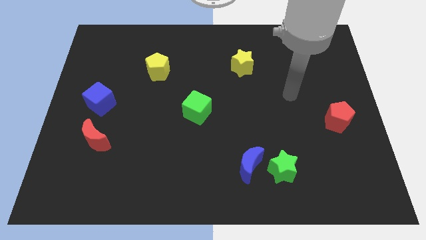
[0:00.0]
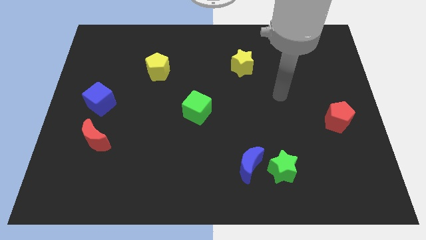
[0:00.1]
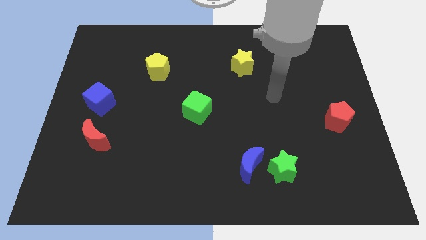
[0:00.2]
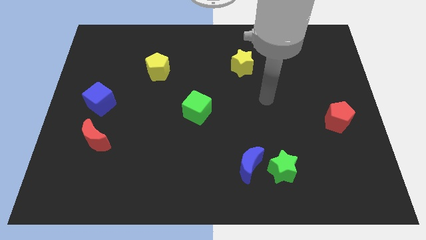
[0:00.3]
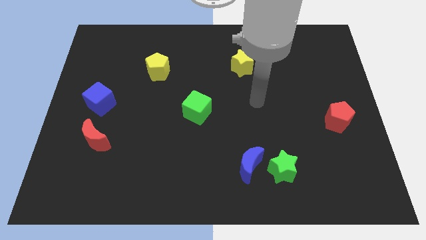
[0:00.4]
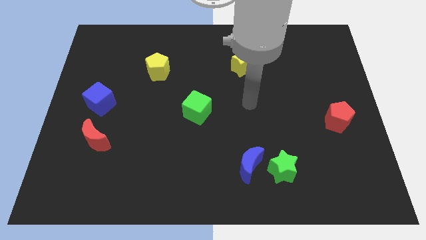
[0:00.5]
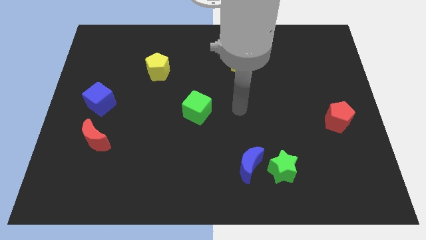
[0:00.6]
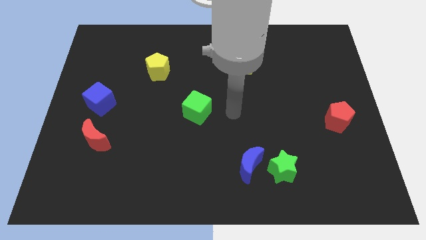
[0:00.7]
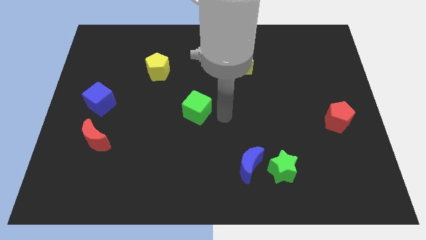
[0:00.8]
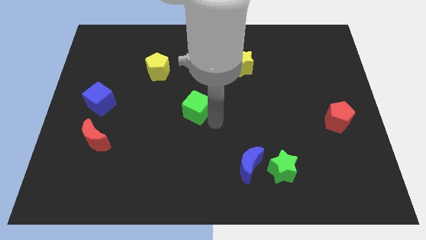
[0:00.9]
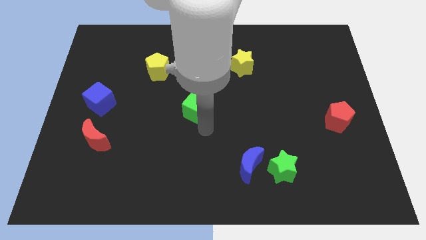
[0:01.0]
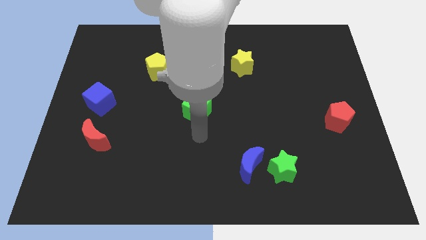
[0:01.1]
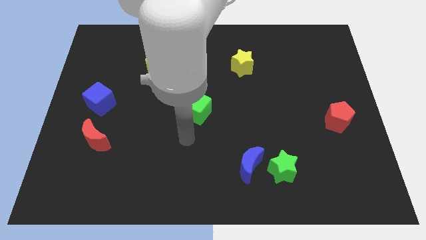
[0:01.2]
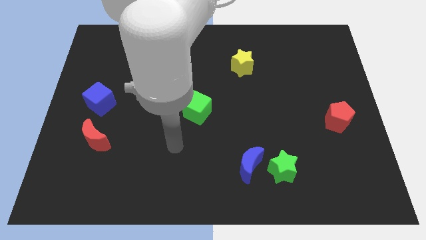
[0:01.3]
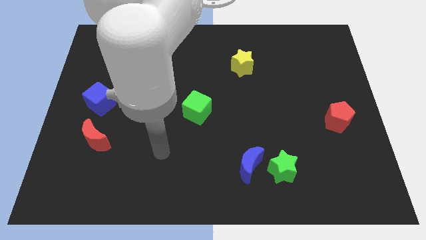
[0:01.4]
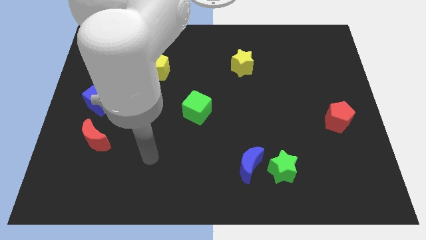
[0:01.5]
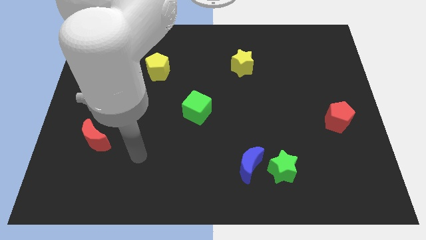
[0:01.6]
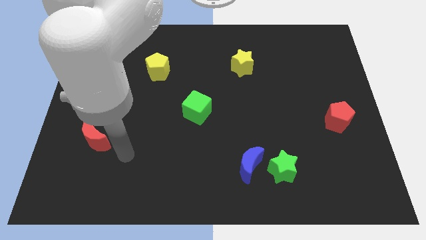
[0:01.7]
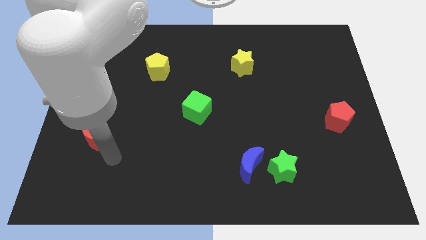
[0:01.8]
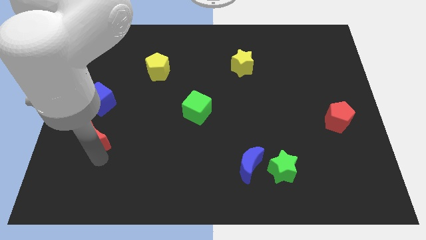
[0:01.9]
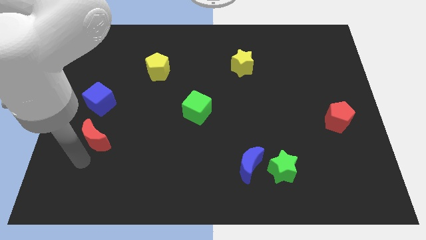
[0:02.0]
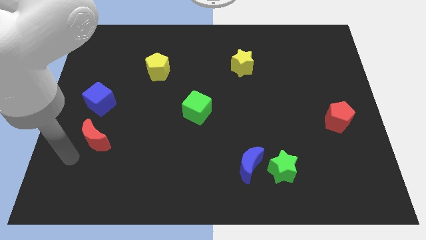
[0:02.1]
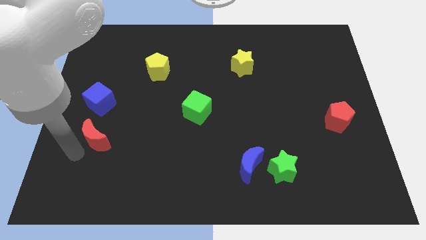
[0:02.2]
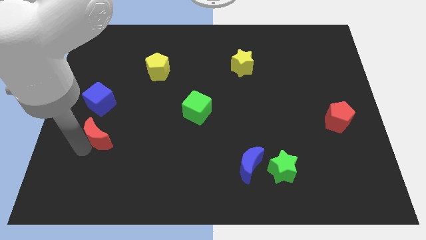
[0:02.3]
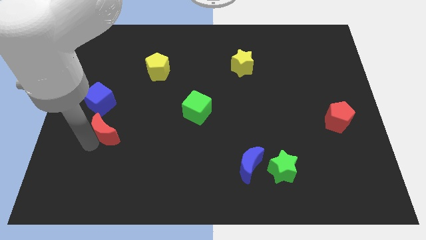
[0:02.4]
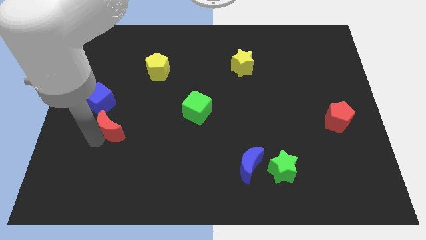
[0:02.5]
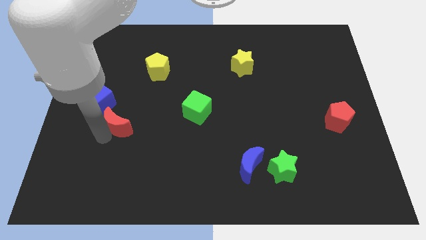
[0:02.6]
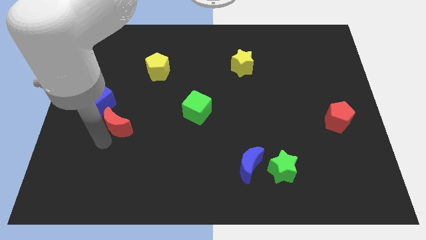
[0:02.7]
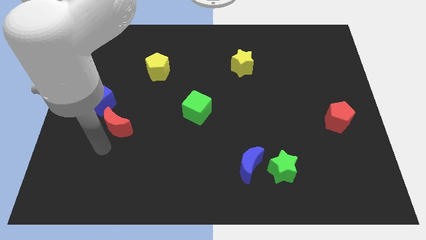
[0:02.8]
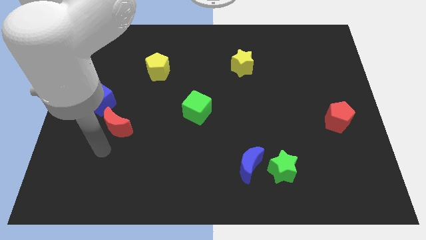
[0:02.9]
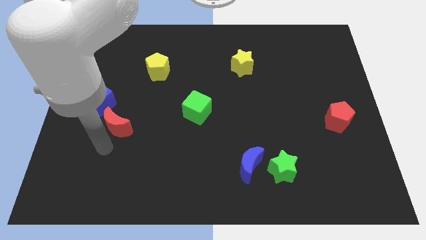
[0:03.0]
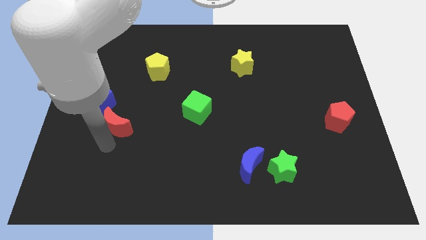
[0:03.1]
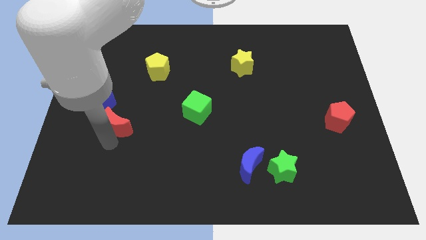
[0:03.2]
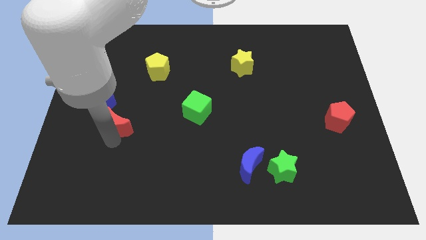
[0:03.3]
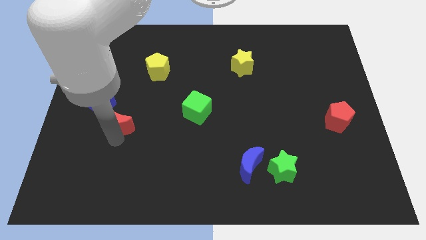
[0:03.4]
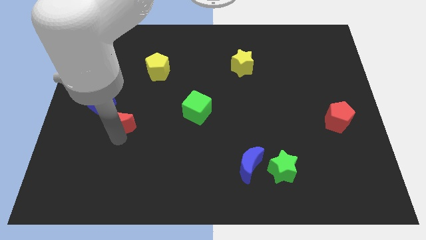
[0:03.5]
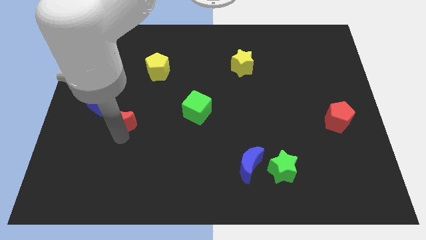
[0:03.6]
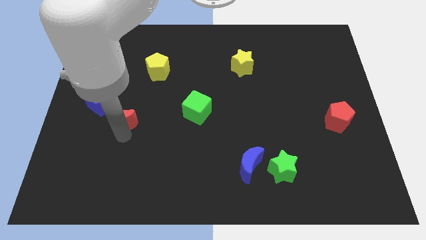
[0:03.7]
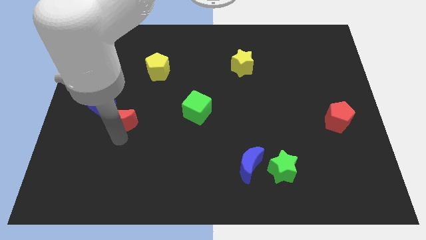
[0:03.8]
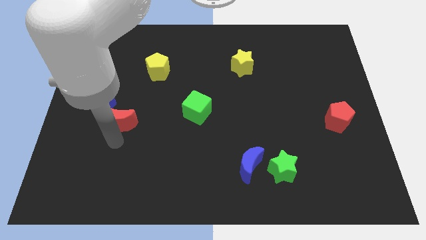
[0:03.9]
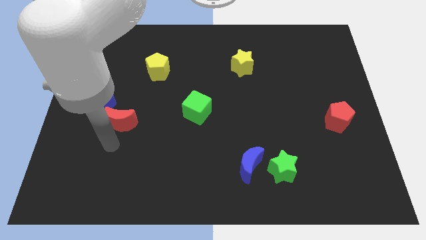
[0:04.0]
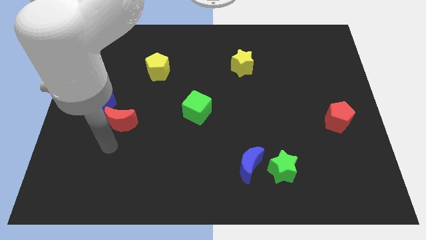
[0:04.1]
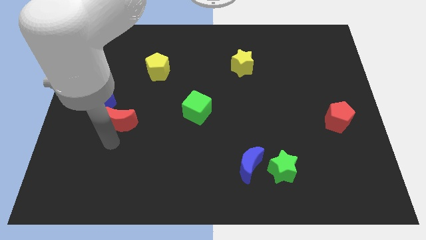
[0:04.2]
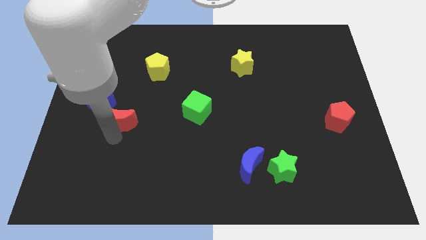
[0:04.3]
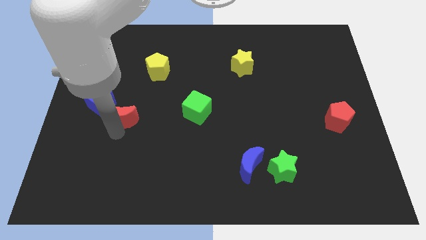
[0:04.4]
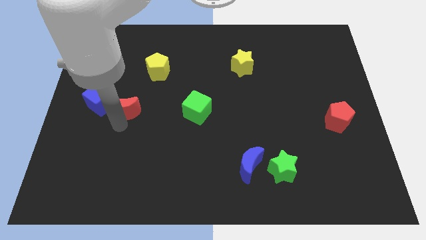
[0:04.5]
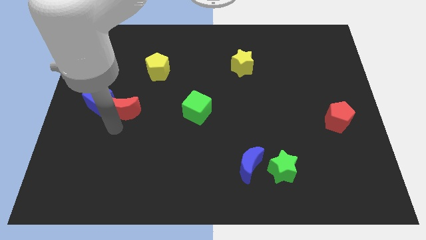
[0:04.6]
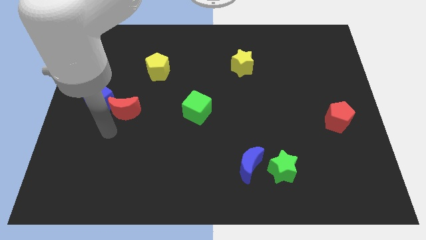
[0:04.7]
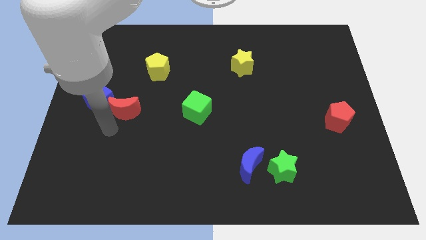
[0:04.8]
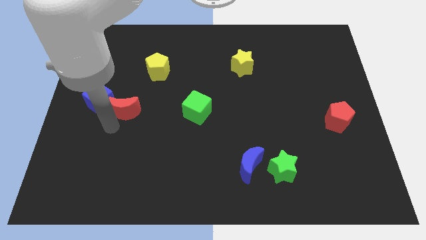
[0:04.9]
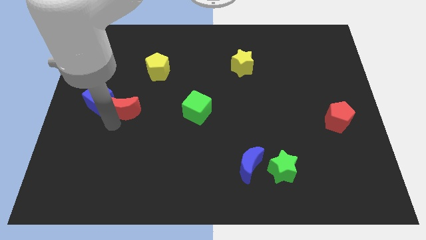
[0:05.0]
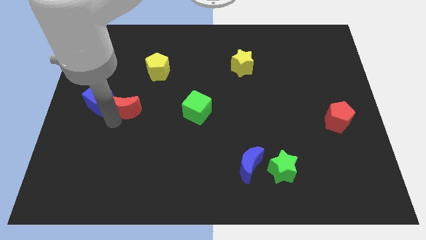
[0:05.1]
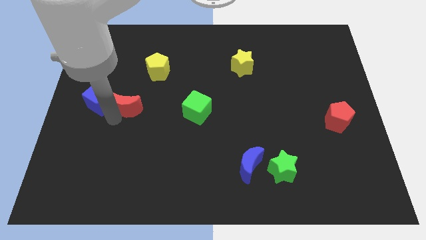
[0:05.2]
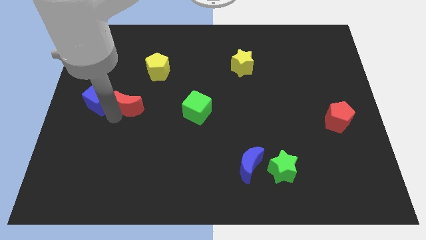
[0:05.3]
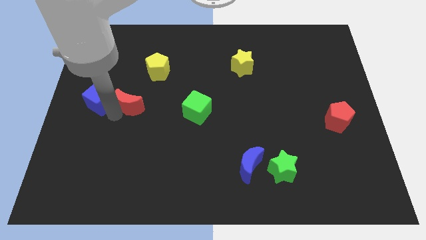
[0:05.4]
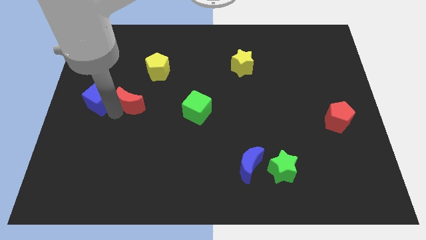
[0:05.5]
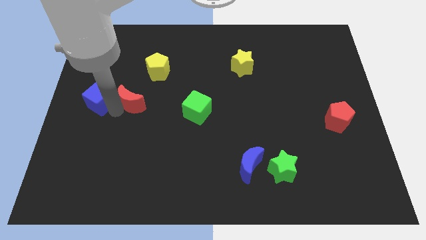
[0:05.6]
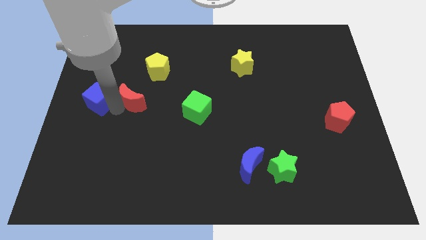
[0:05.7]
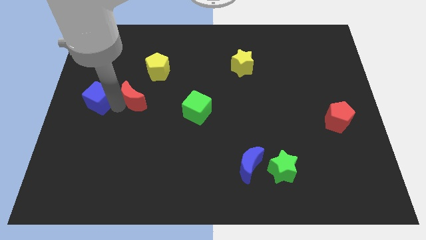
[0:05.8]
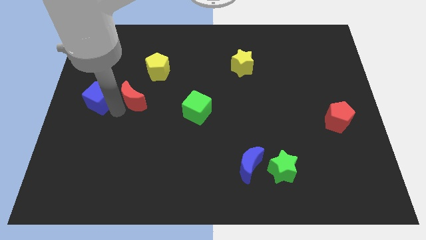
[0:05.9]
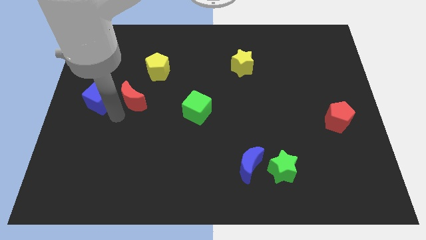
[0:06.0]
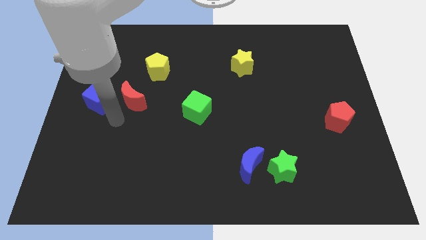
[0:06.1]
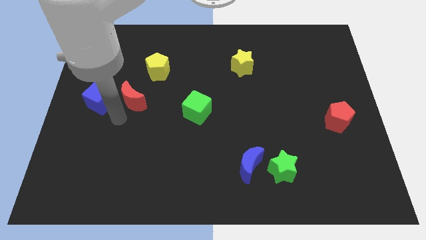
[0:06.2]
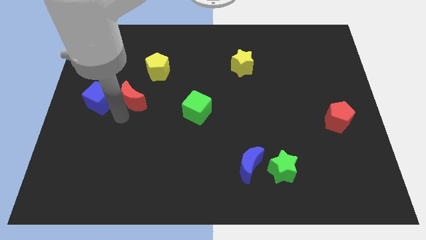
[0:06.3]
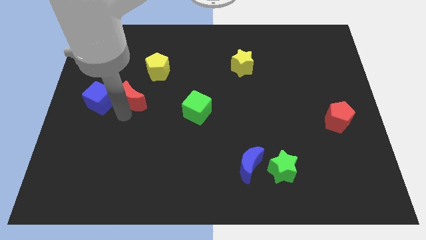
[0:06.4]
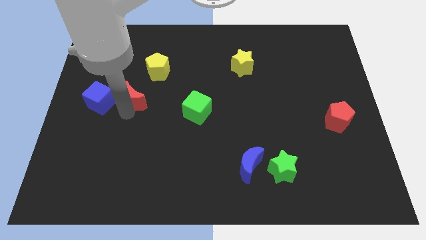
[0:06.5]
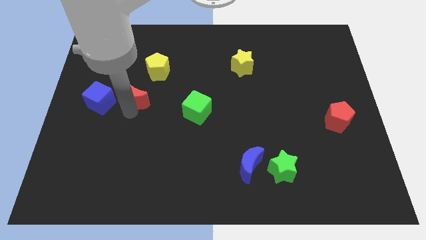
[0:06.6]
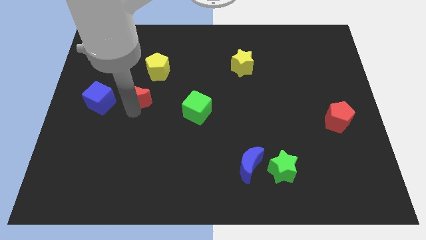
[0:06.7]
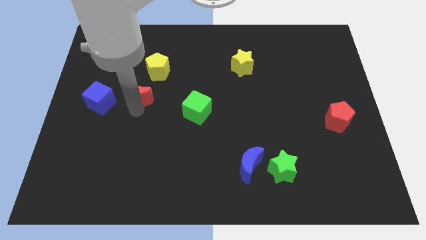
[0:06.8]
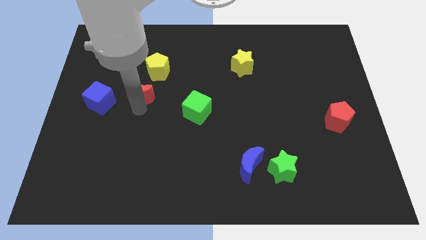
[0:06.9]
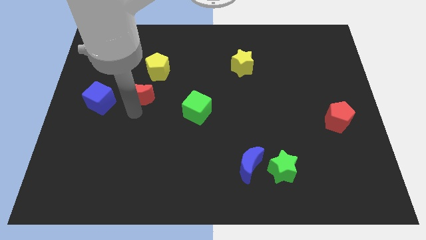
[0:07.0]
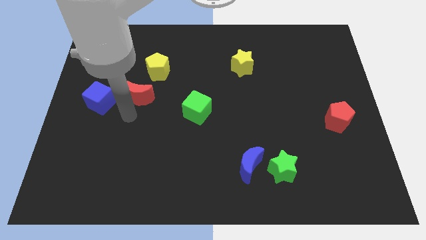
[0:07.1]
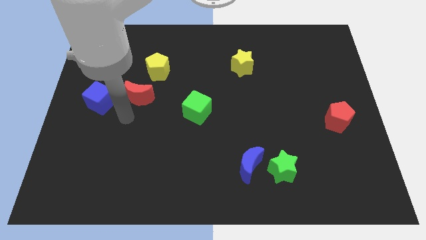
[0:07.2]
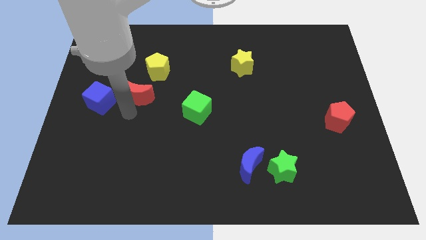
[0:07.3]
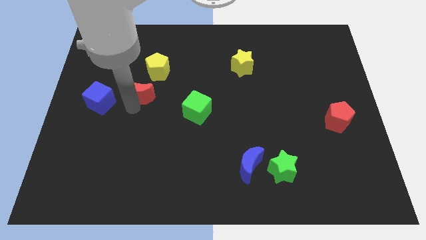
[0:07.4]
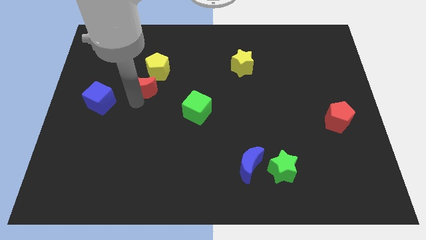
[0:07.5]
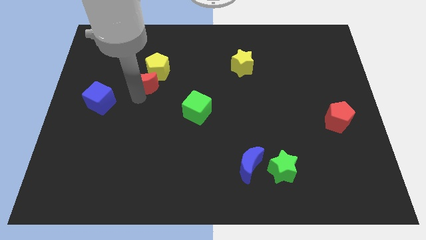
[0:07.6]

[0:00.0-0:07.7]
slide the red moon to the yellow pentagon
